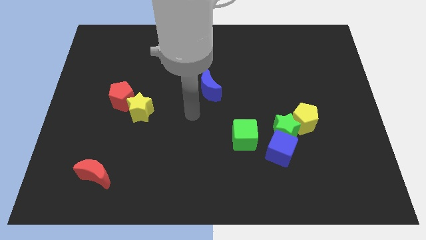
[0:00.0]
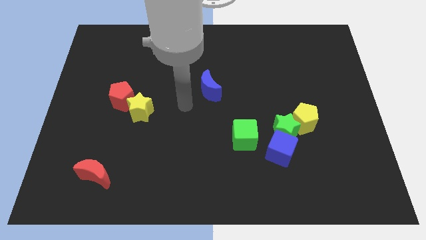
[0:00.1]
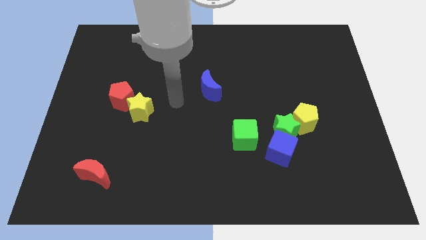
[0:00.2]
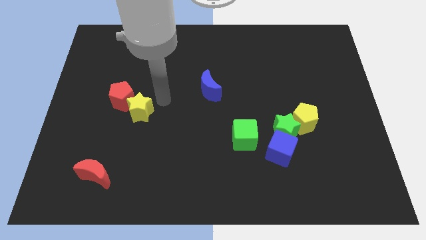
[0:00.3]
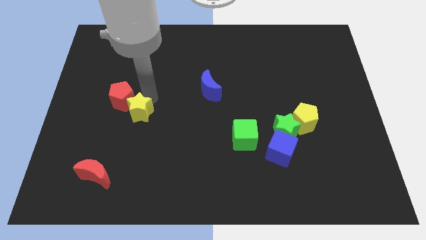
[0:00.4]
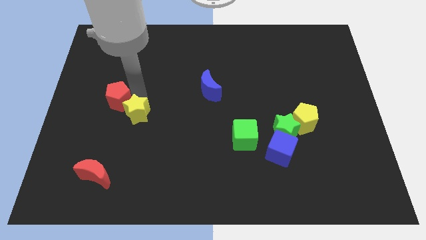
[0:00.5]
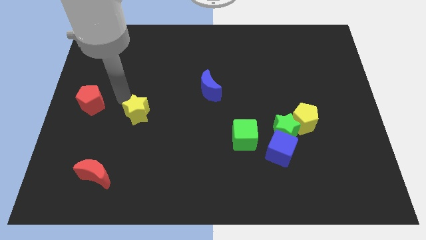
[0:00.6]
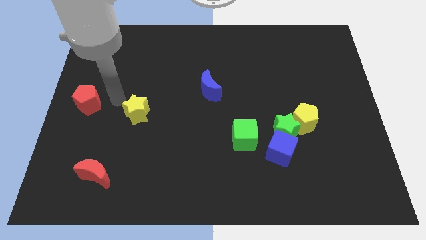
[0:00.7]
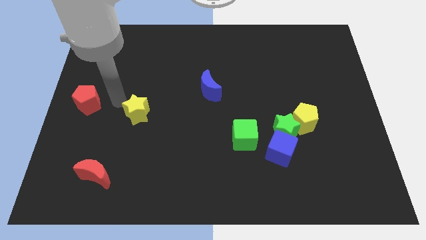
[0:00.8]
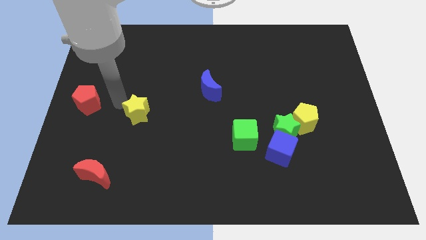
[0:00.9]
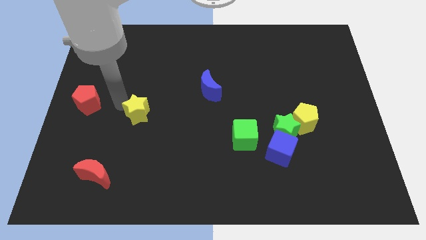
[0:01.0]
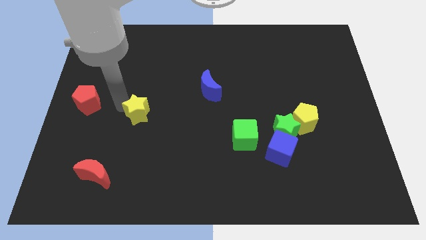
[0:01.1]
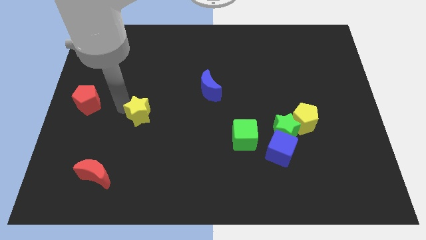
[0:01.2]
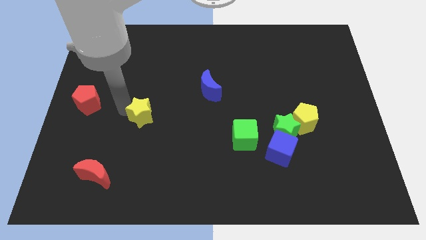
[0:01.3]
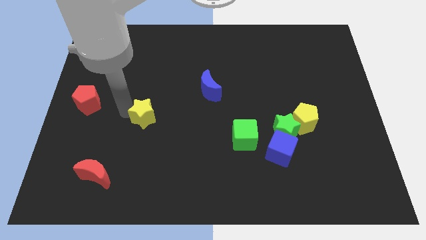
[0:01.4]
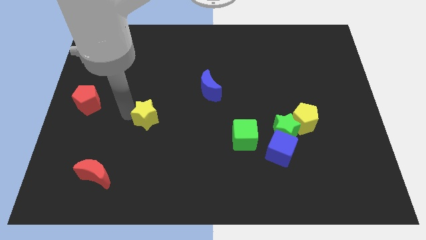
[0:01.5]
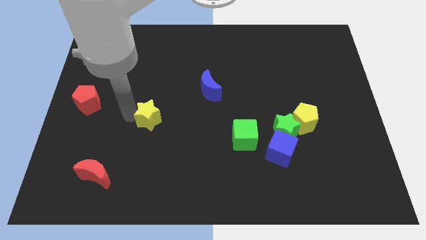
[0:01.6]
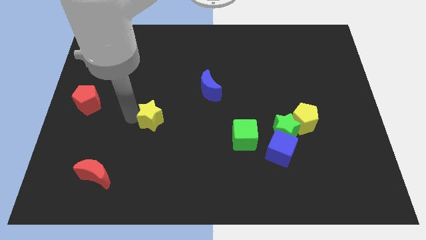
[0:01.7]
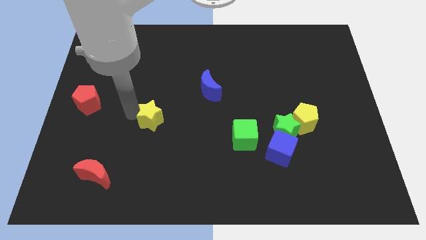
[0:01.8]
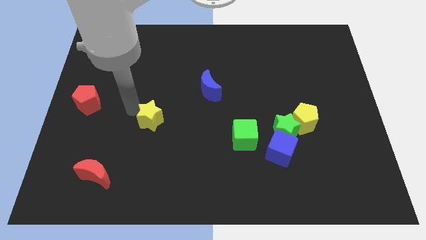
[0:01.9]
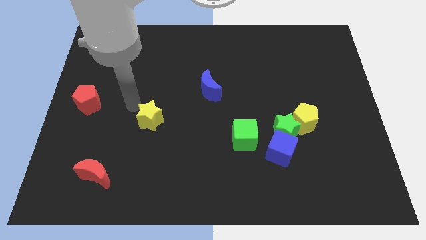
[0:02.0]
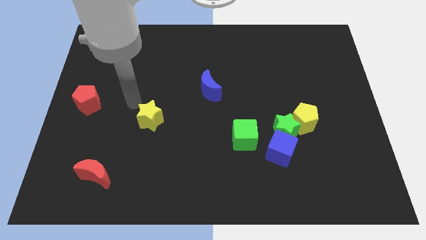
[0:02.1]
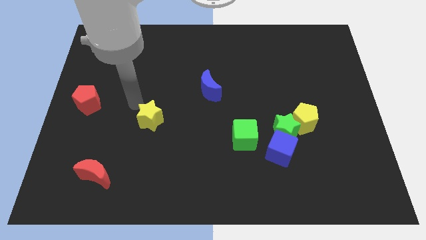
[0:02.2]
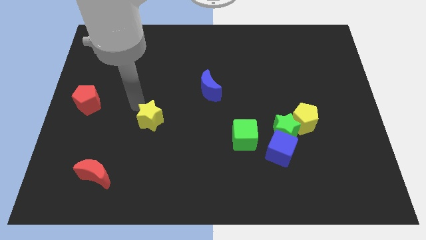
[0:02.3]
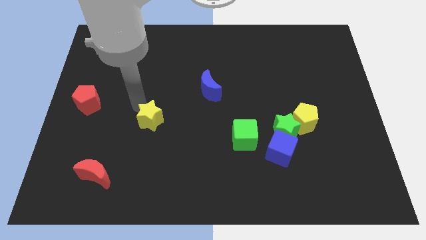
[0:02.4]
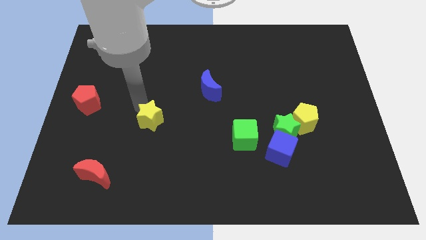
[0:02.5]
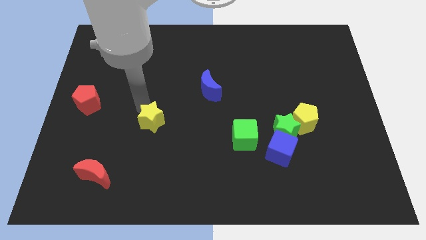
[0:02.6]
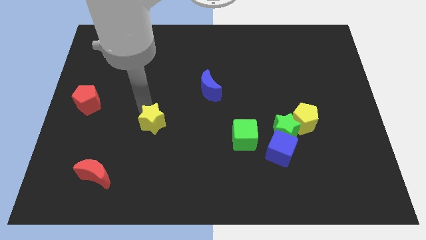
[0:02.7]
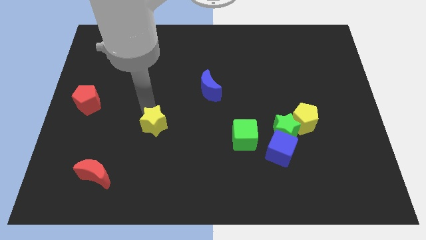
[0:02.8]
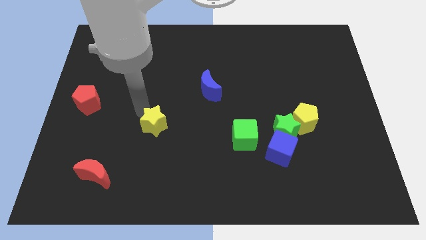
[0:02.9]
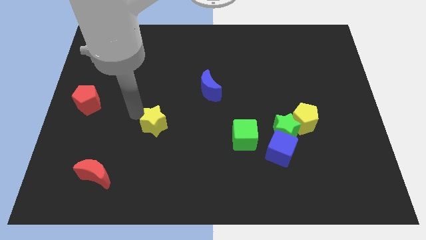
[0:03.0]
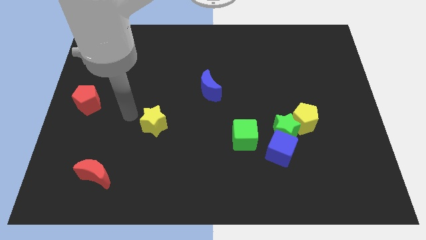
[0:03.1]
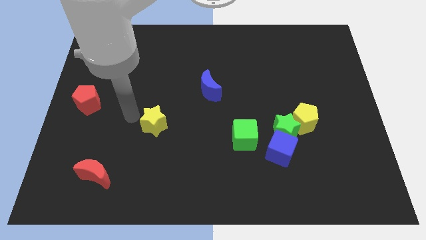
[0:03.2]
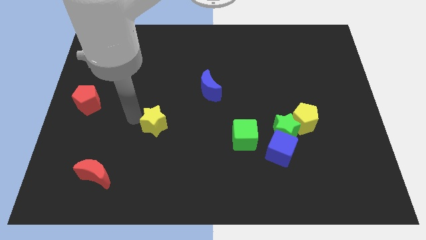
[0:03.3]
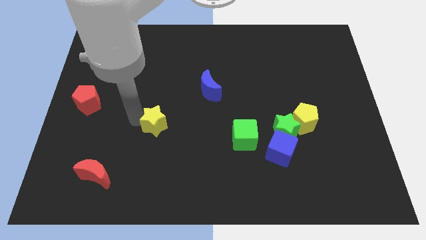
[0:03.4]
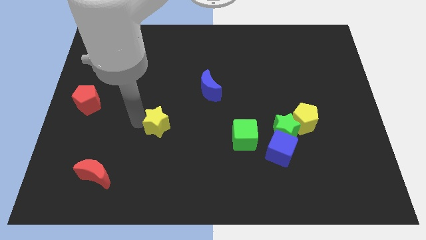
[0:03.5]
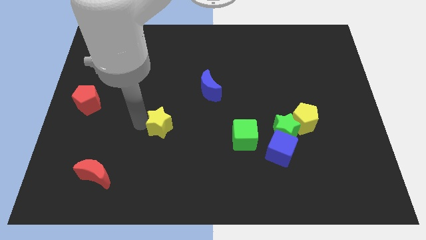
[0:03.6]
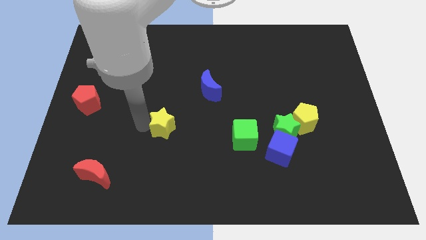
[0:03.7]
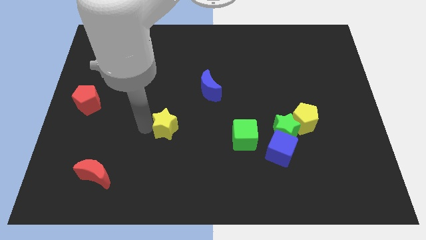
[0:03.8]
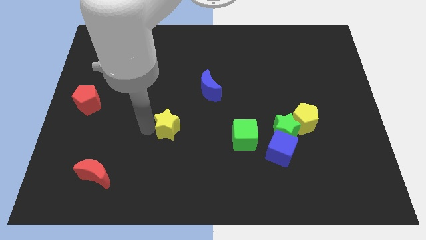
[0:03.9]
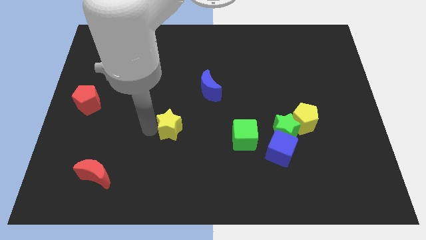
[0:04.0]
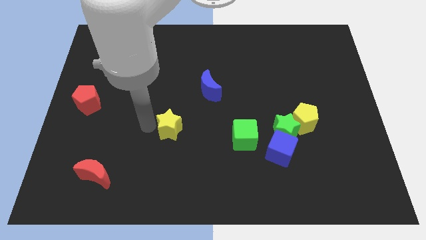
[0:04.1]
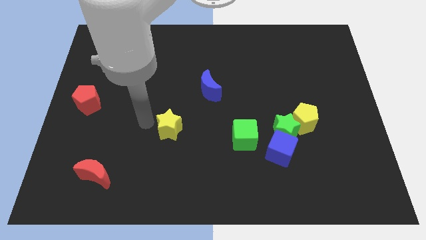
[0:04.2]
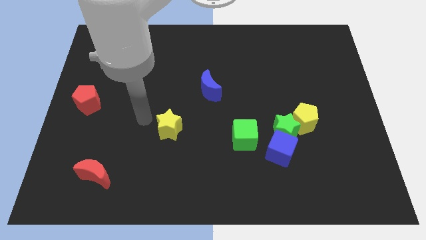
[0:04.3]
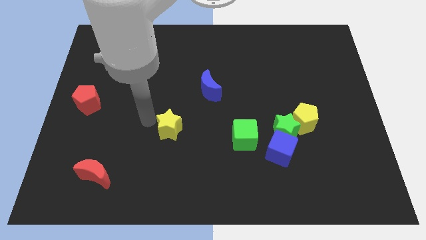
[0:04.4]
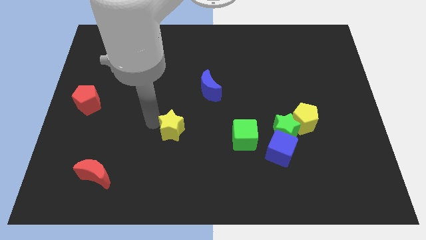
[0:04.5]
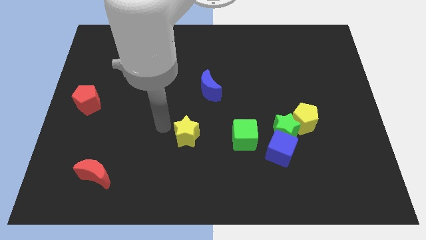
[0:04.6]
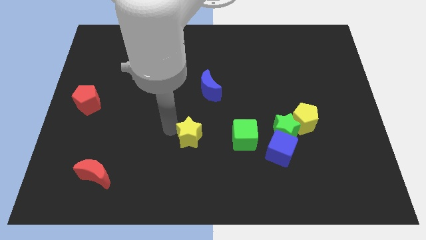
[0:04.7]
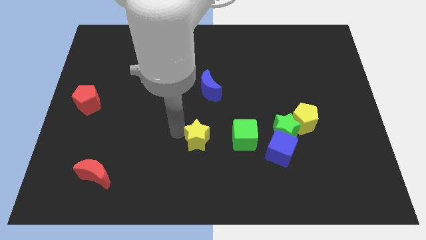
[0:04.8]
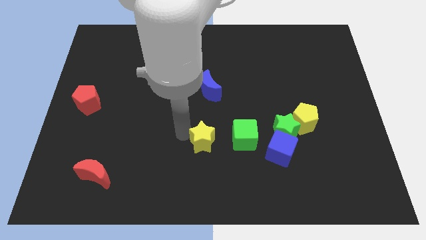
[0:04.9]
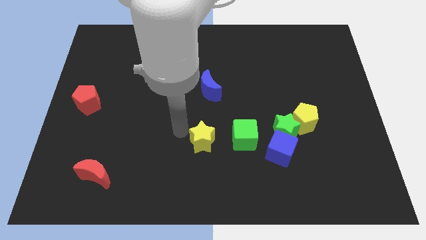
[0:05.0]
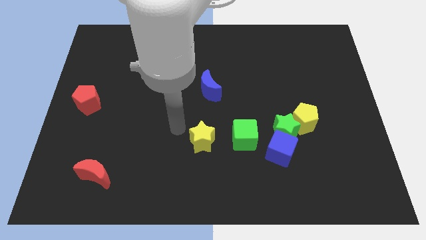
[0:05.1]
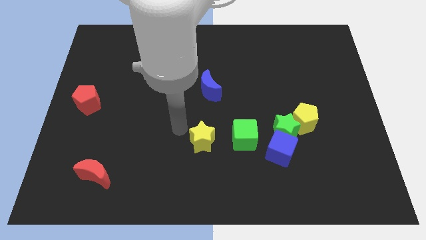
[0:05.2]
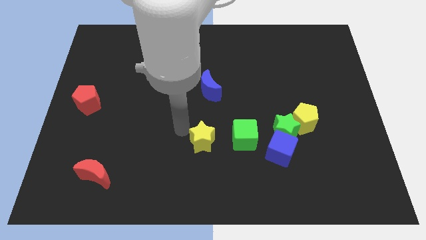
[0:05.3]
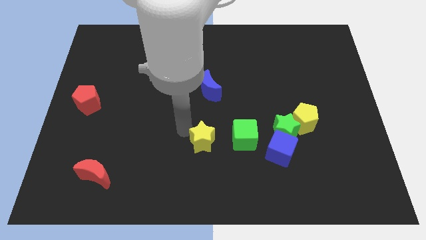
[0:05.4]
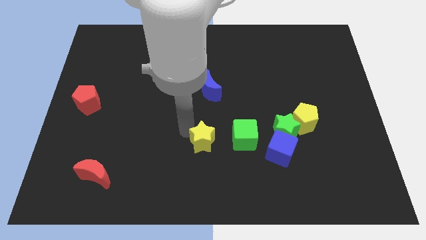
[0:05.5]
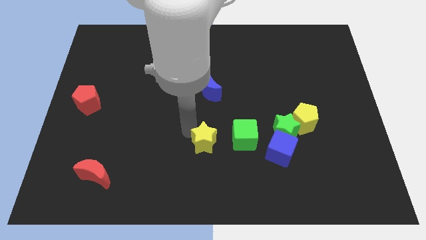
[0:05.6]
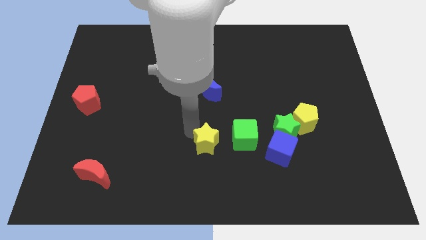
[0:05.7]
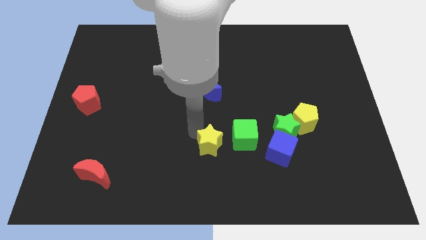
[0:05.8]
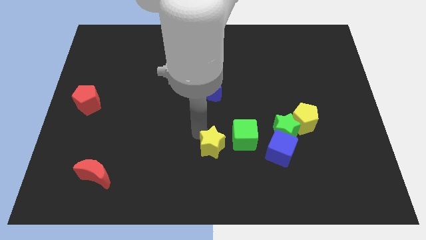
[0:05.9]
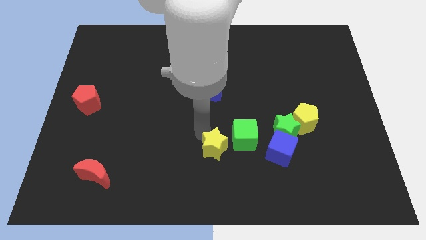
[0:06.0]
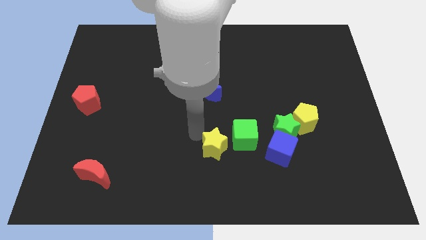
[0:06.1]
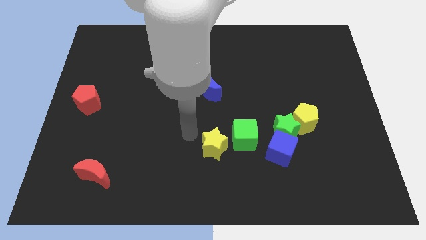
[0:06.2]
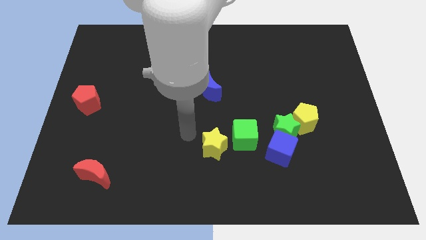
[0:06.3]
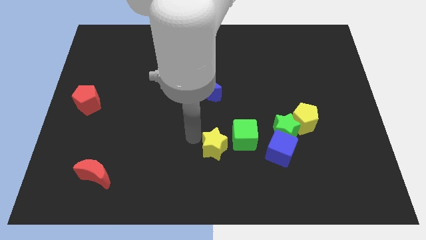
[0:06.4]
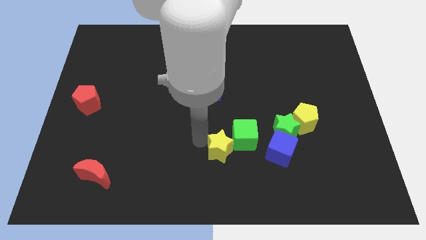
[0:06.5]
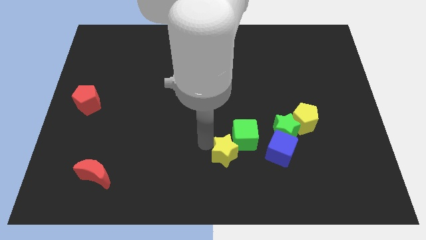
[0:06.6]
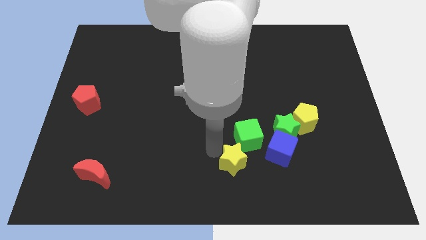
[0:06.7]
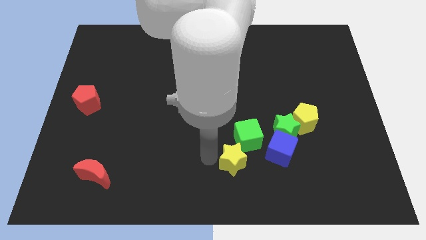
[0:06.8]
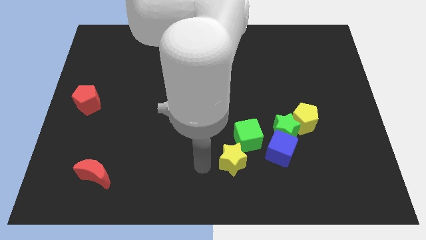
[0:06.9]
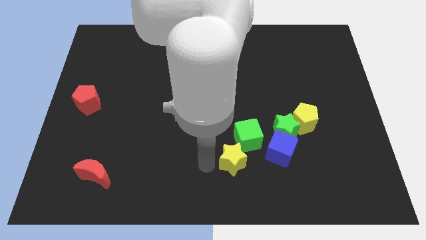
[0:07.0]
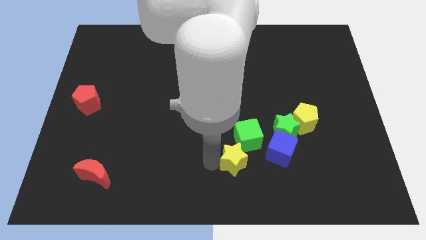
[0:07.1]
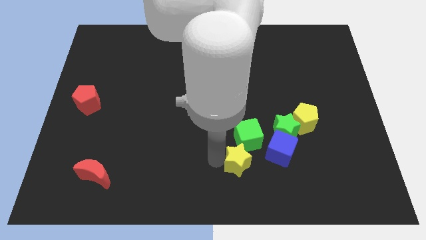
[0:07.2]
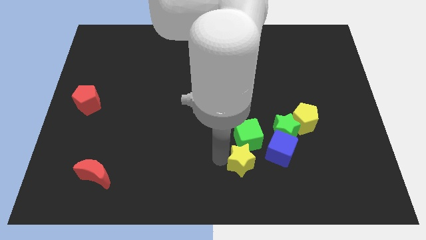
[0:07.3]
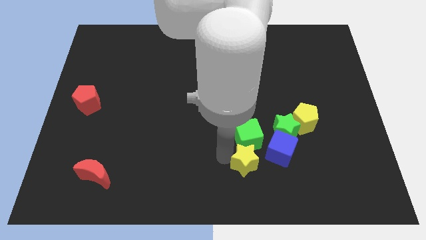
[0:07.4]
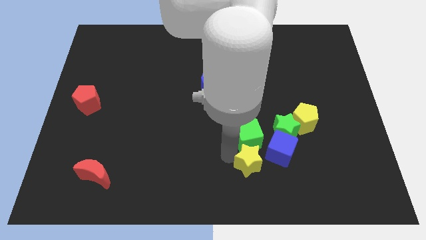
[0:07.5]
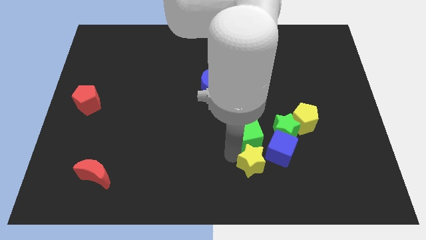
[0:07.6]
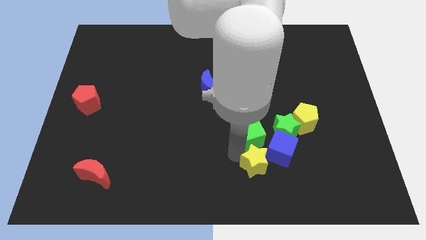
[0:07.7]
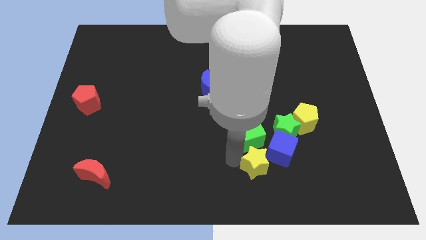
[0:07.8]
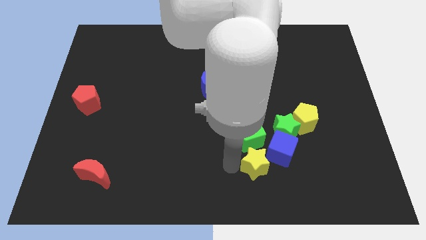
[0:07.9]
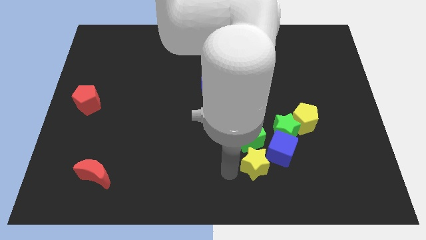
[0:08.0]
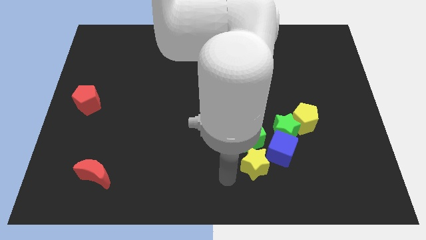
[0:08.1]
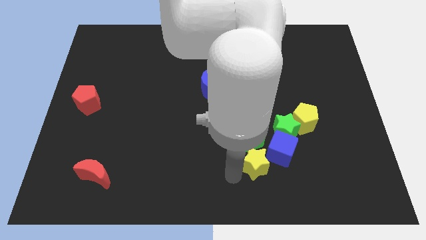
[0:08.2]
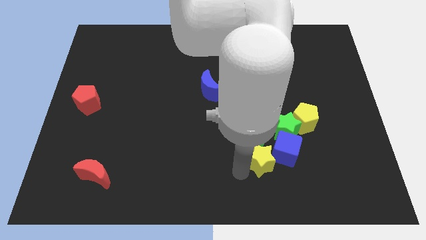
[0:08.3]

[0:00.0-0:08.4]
push the yellow star towards the blue cube
